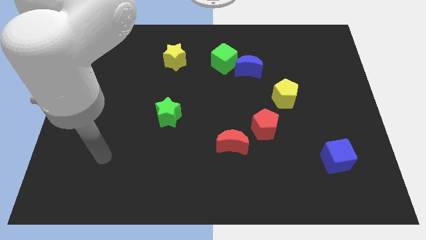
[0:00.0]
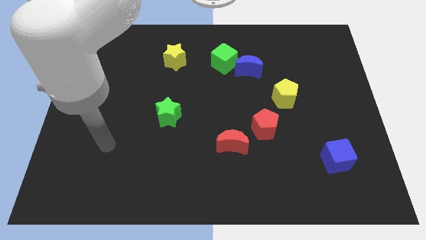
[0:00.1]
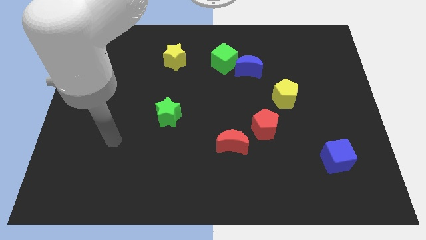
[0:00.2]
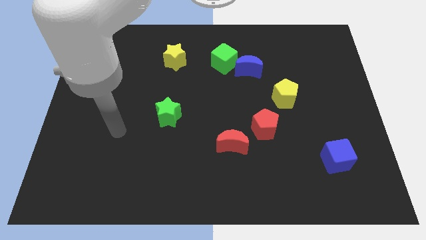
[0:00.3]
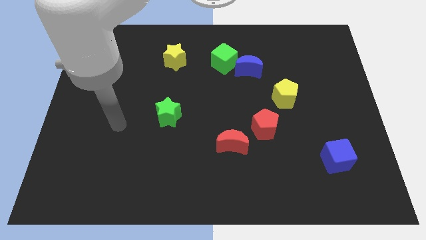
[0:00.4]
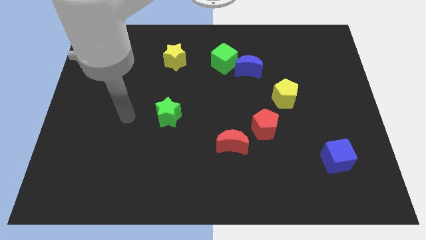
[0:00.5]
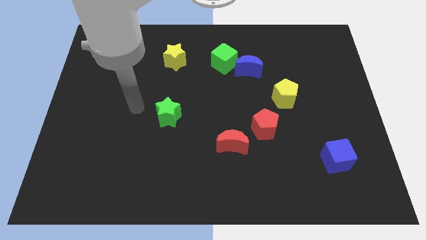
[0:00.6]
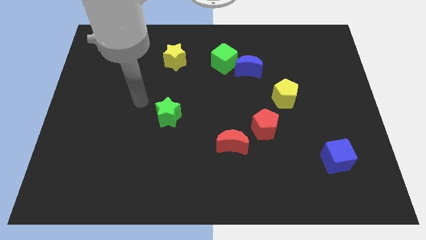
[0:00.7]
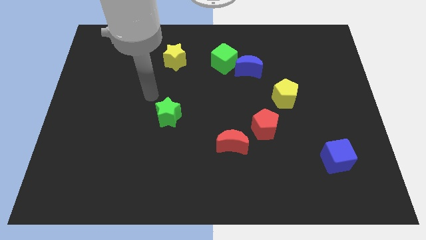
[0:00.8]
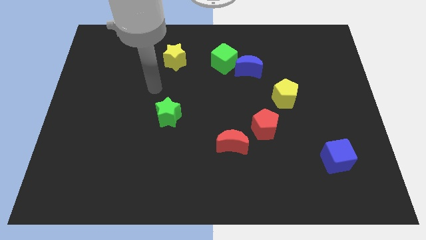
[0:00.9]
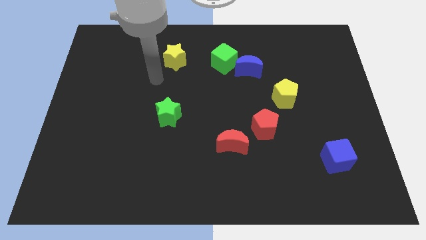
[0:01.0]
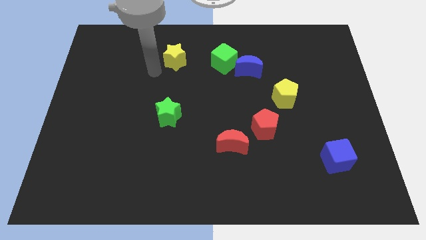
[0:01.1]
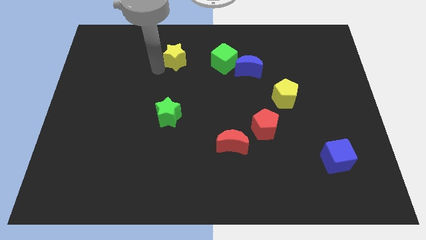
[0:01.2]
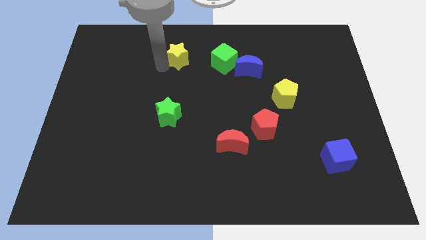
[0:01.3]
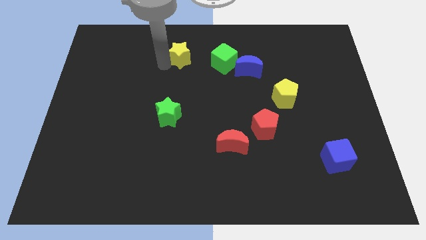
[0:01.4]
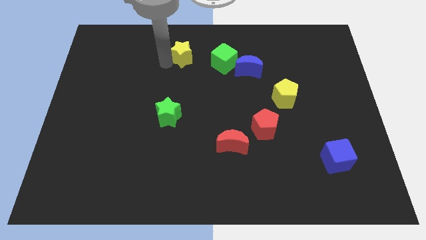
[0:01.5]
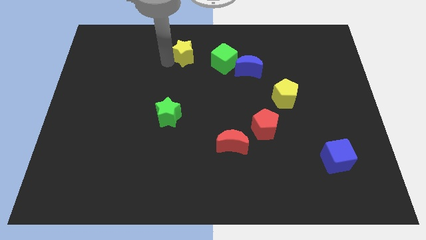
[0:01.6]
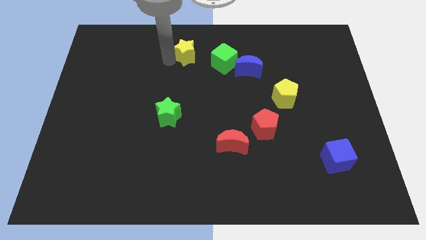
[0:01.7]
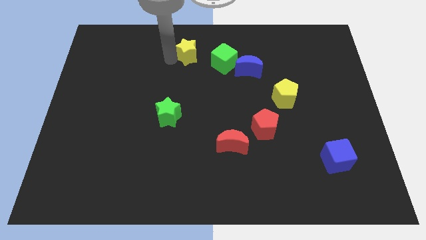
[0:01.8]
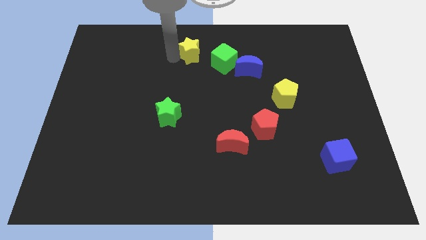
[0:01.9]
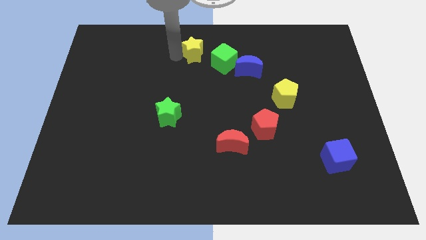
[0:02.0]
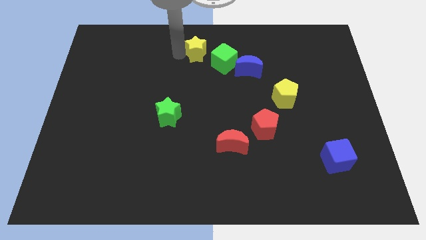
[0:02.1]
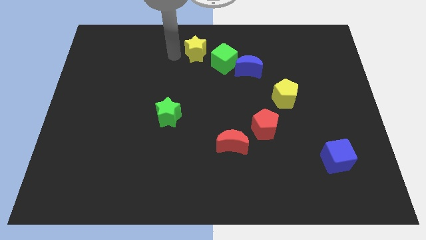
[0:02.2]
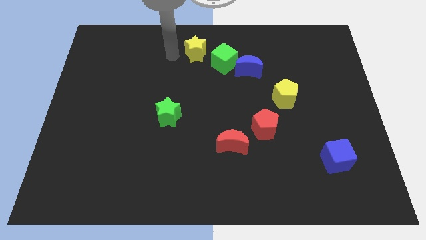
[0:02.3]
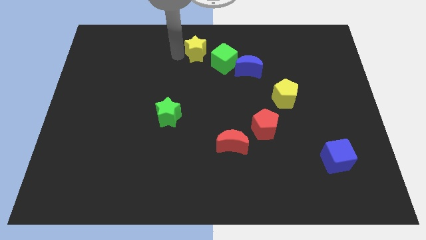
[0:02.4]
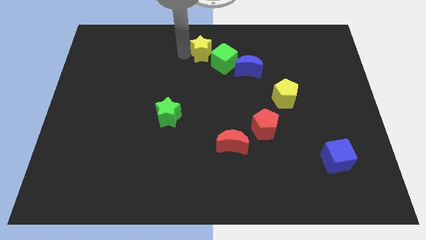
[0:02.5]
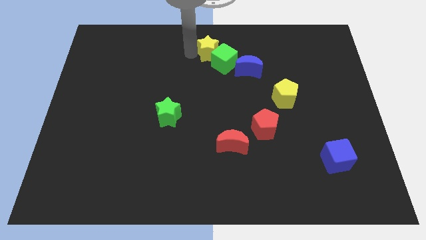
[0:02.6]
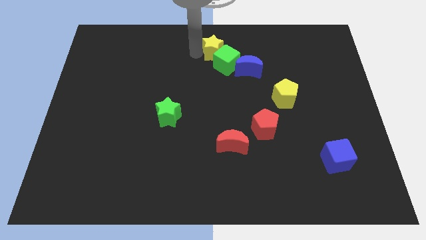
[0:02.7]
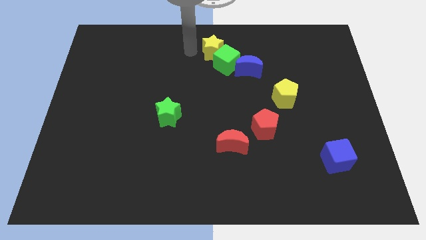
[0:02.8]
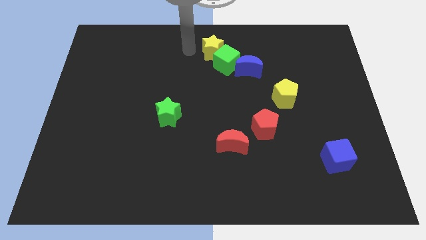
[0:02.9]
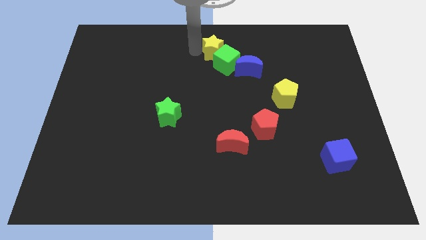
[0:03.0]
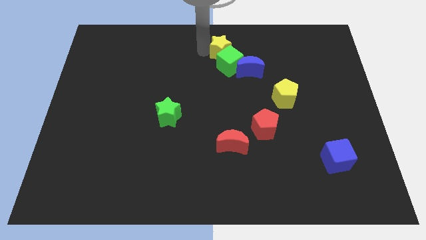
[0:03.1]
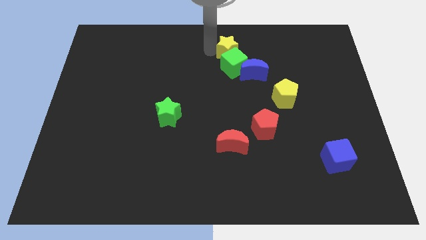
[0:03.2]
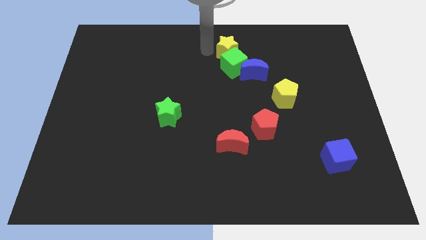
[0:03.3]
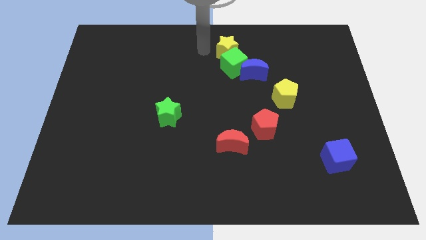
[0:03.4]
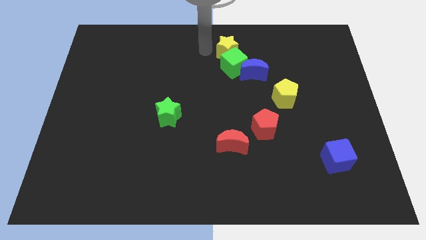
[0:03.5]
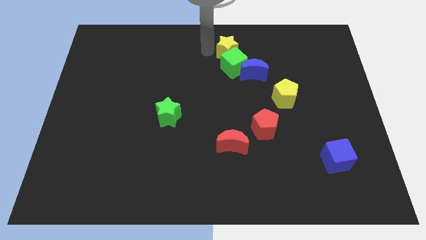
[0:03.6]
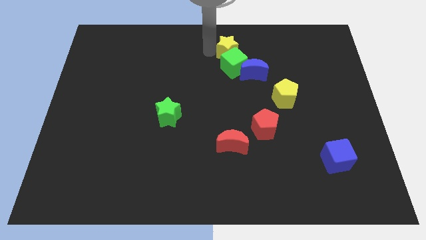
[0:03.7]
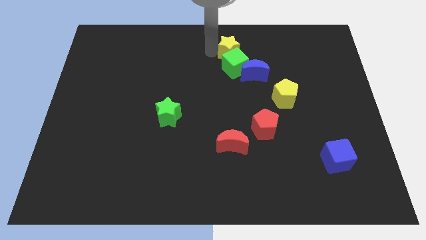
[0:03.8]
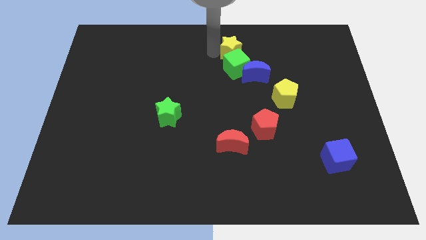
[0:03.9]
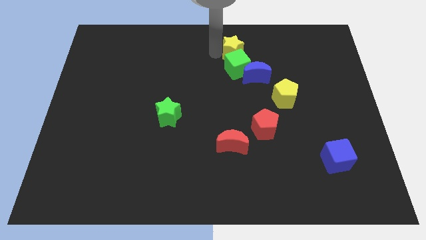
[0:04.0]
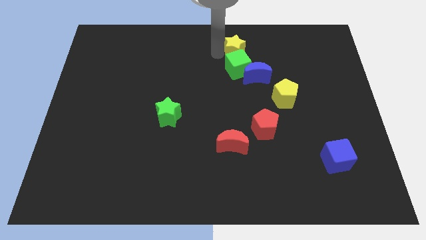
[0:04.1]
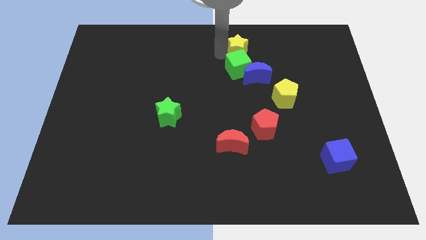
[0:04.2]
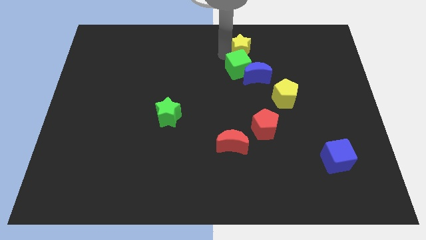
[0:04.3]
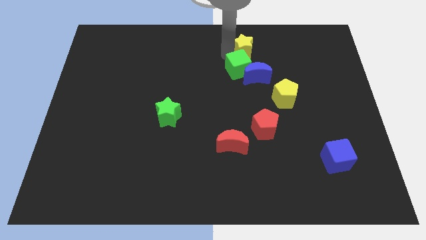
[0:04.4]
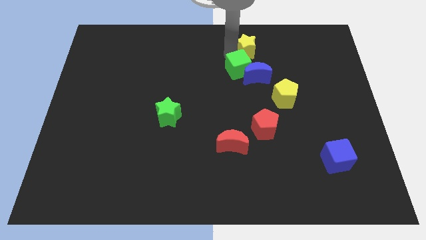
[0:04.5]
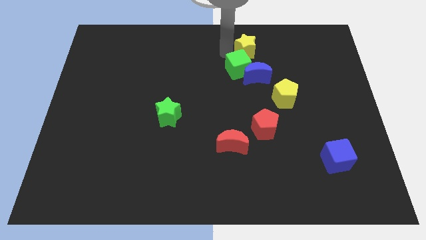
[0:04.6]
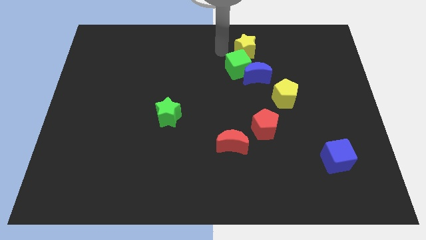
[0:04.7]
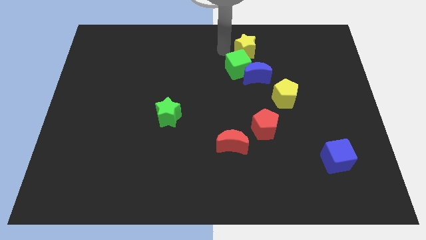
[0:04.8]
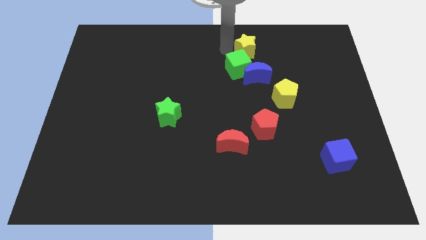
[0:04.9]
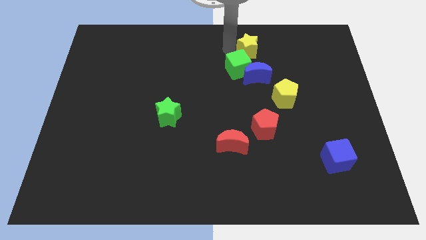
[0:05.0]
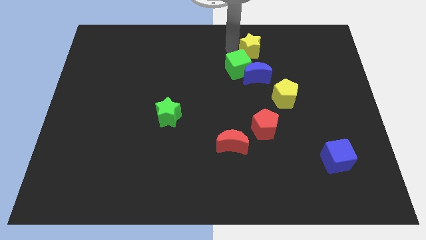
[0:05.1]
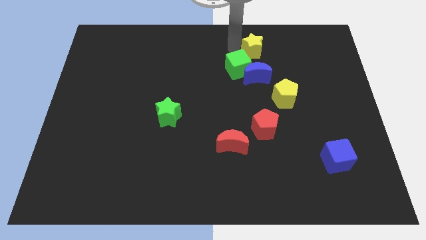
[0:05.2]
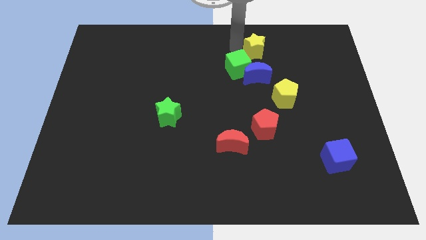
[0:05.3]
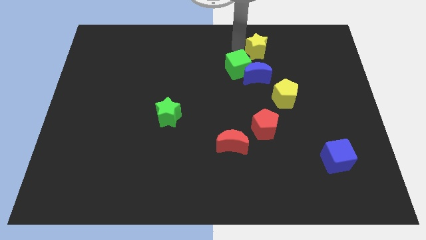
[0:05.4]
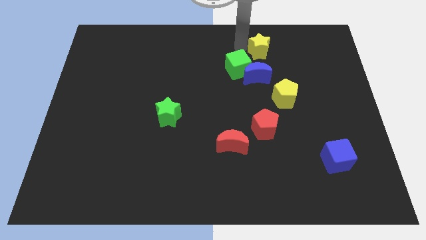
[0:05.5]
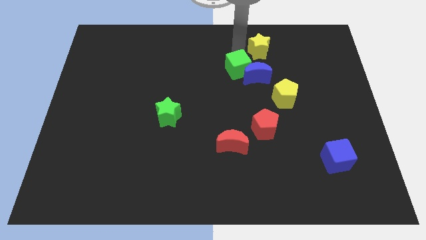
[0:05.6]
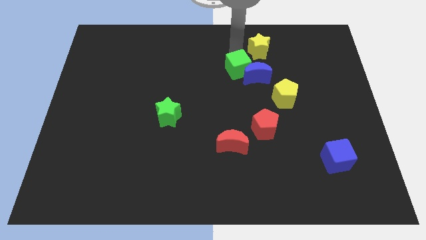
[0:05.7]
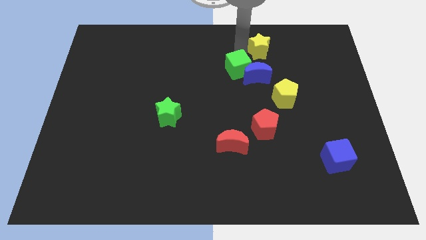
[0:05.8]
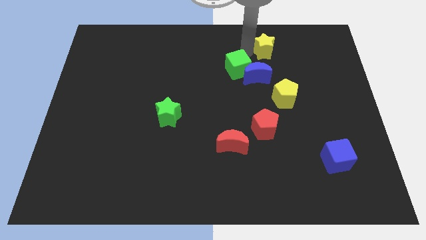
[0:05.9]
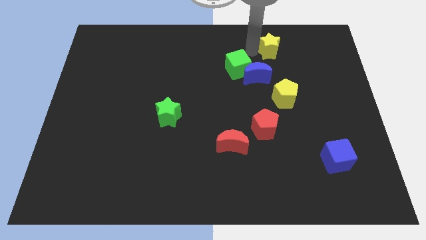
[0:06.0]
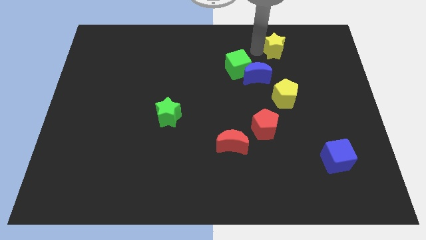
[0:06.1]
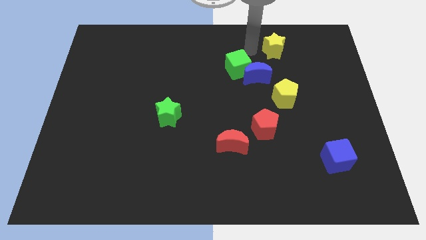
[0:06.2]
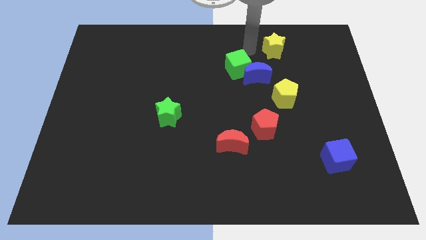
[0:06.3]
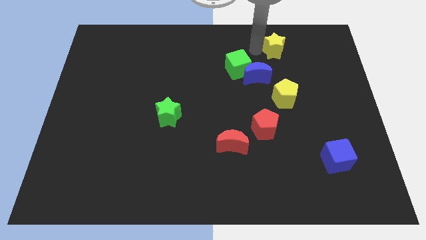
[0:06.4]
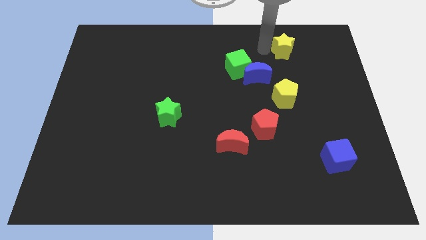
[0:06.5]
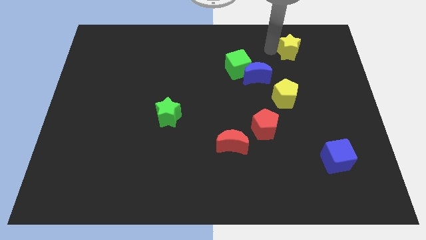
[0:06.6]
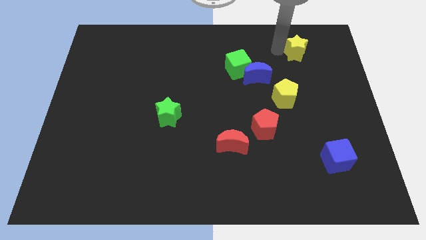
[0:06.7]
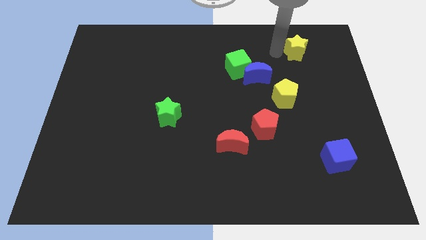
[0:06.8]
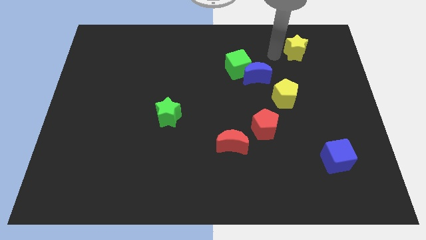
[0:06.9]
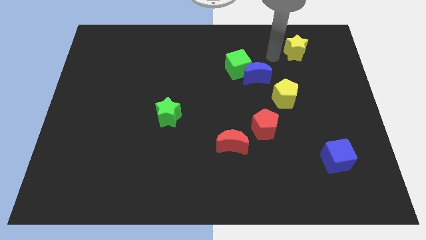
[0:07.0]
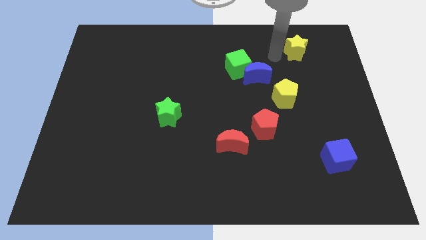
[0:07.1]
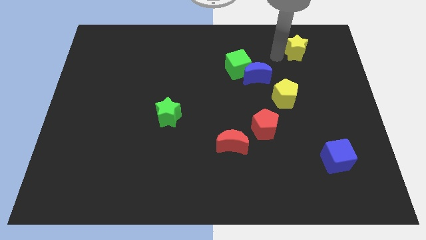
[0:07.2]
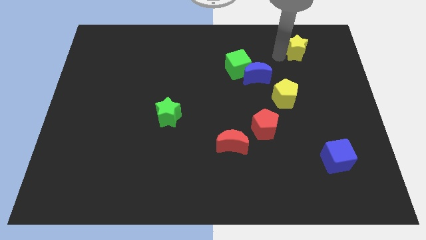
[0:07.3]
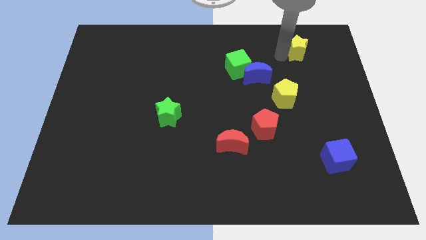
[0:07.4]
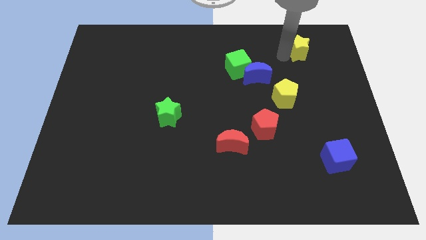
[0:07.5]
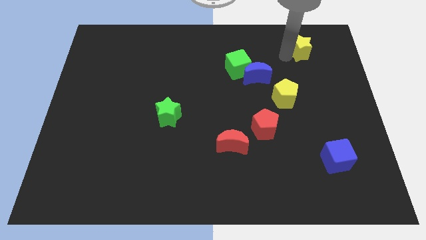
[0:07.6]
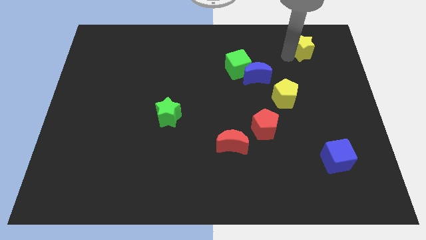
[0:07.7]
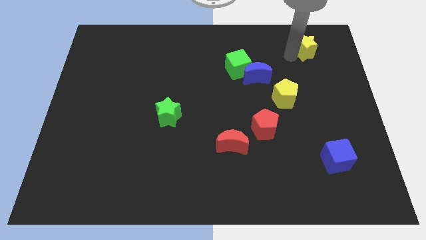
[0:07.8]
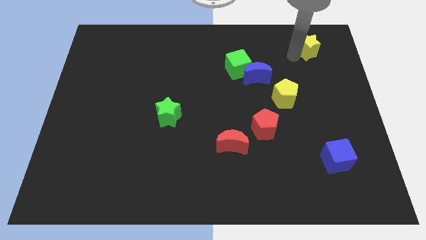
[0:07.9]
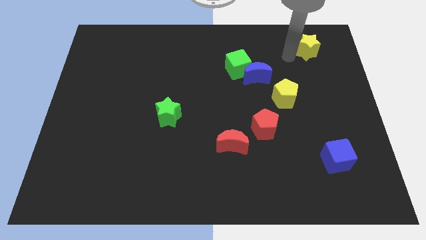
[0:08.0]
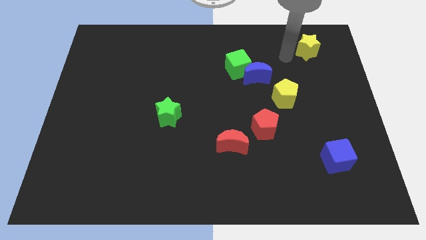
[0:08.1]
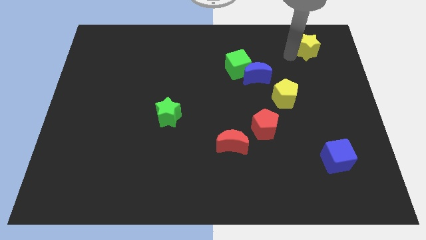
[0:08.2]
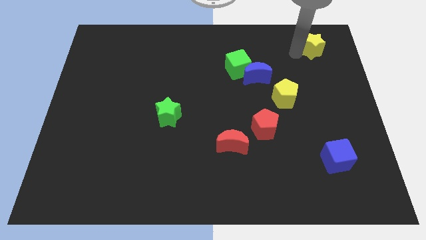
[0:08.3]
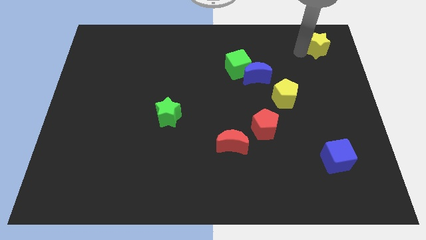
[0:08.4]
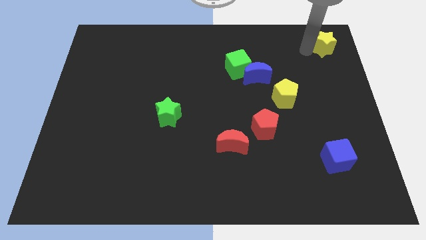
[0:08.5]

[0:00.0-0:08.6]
push the yellow star to the top right of the board
